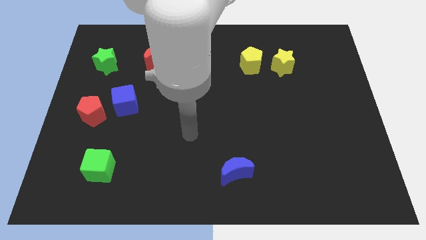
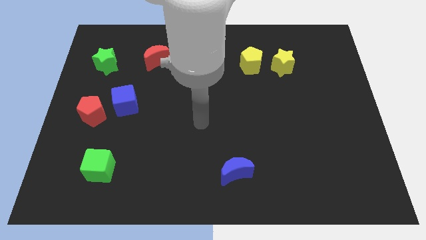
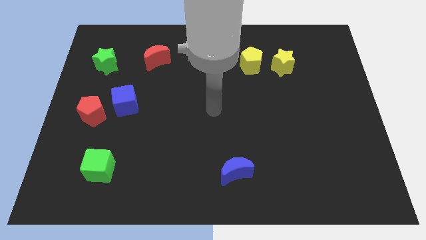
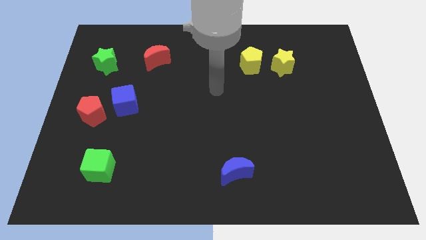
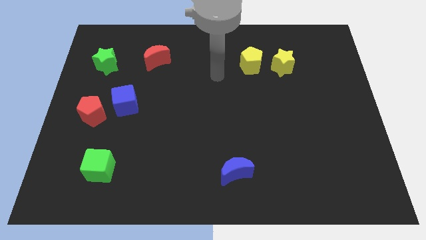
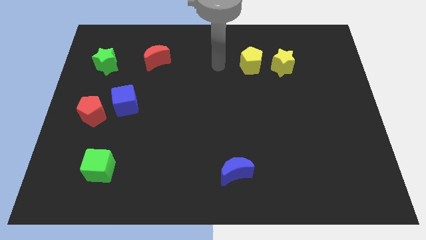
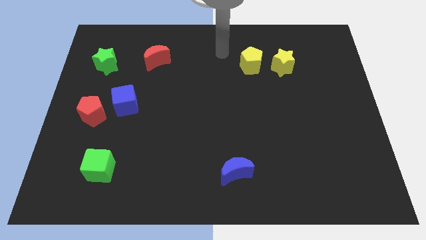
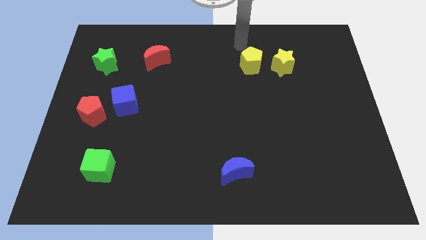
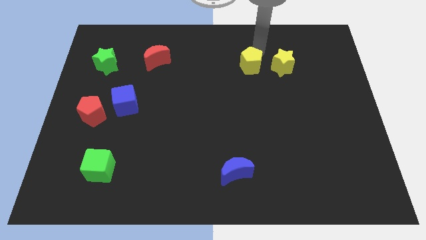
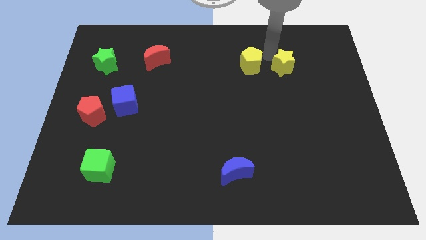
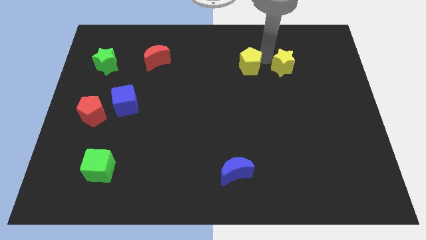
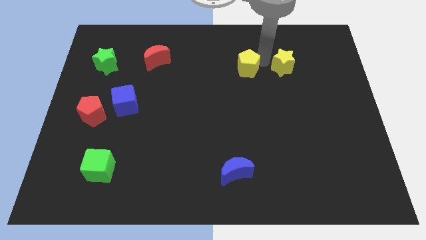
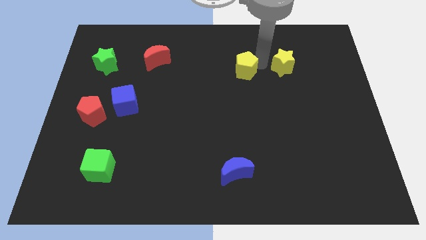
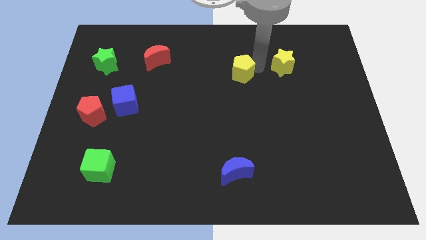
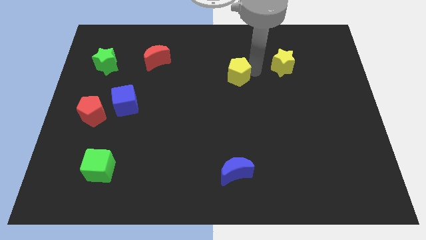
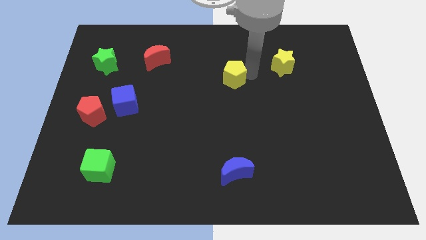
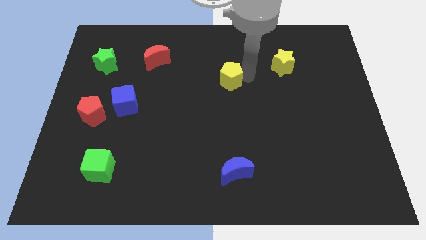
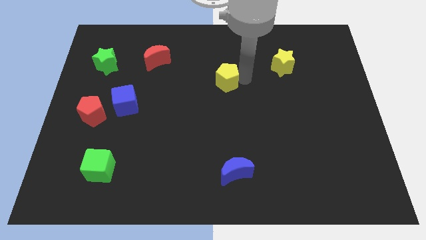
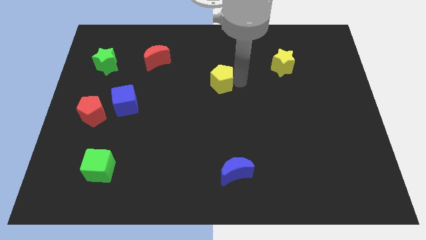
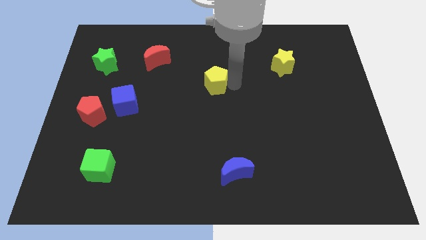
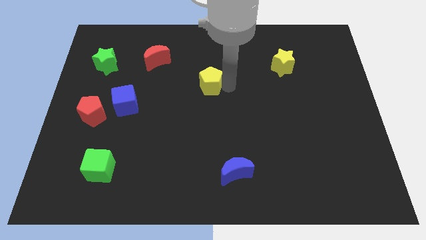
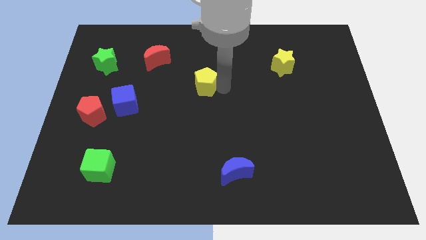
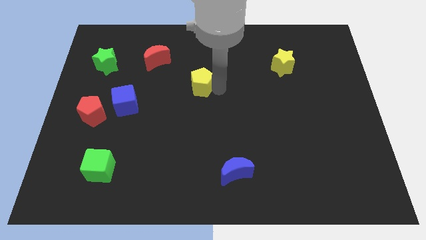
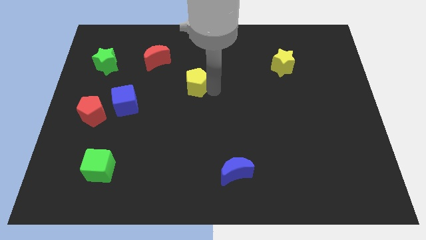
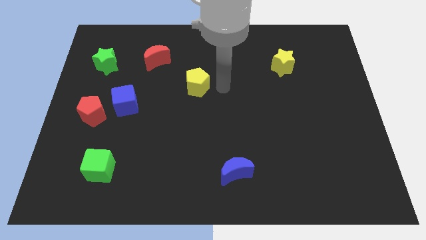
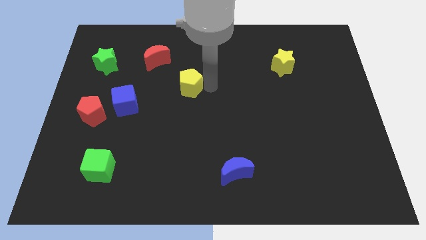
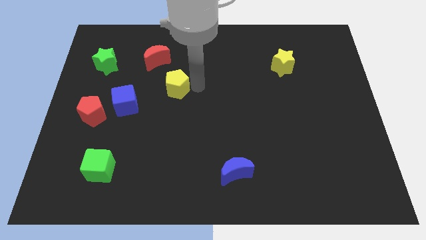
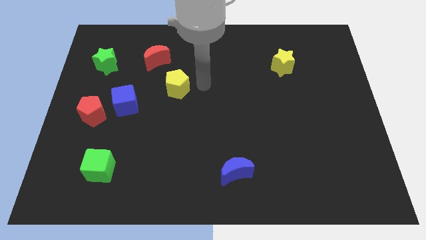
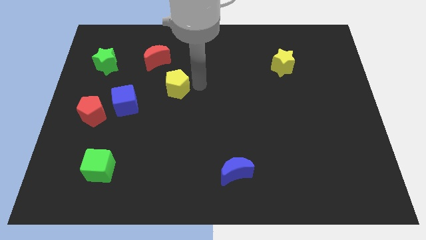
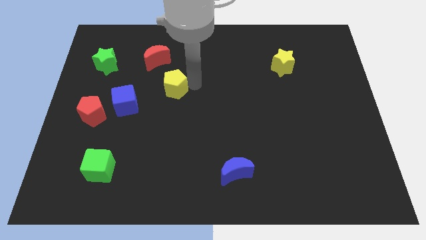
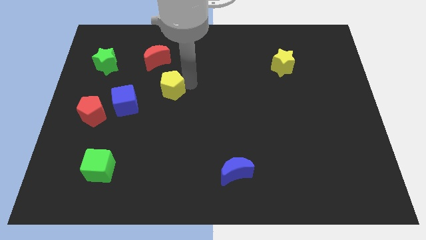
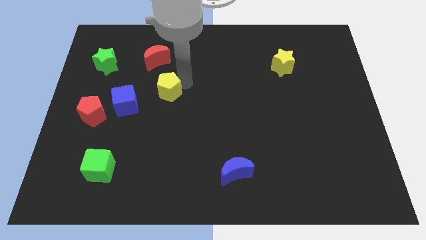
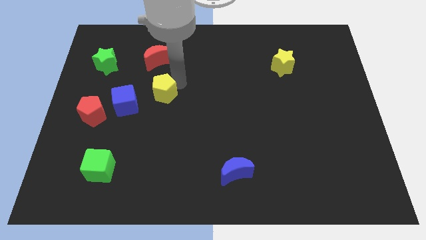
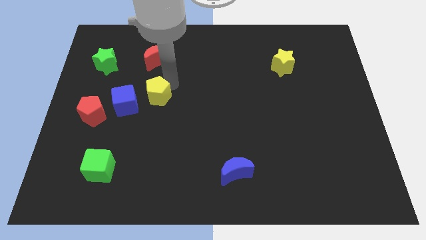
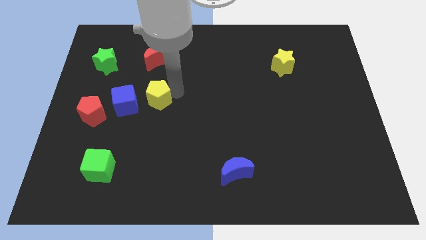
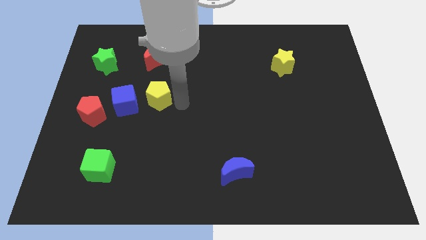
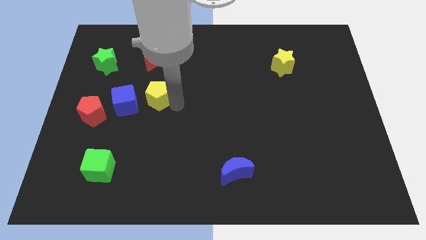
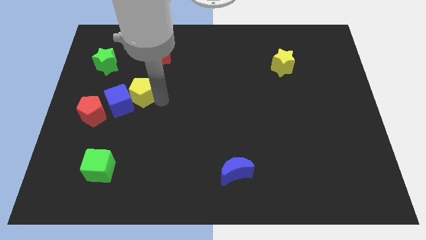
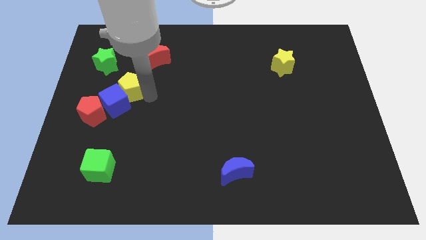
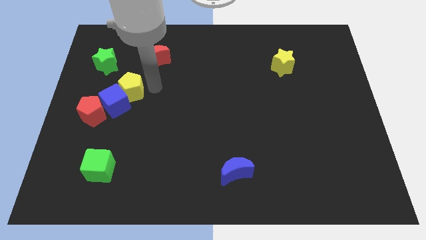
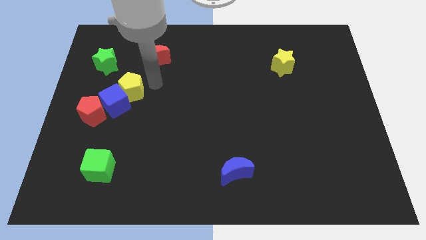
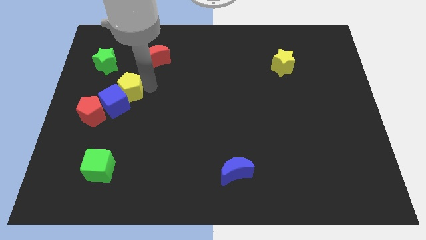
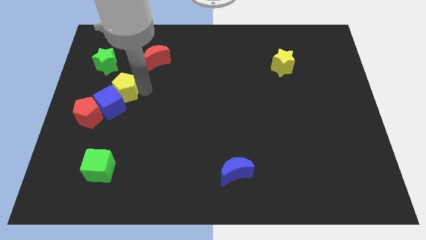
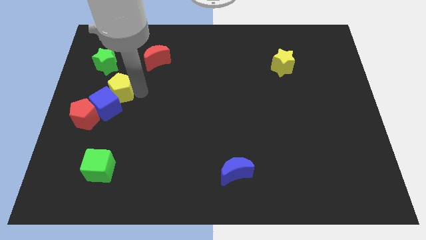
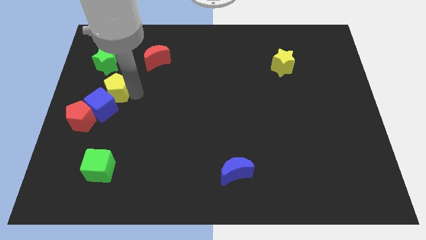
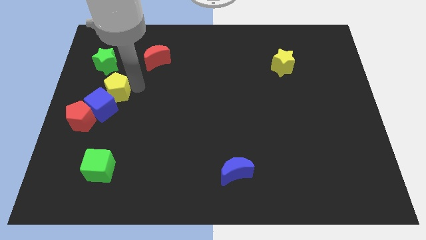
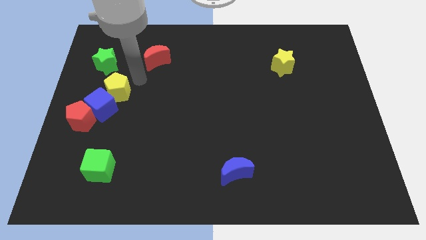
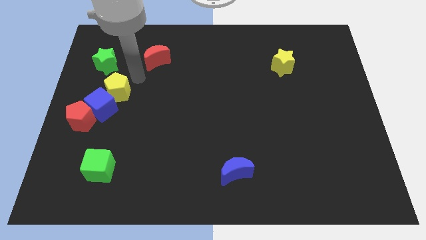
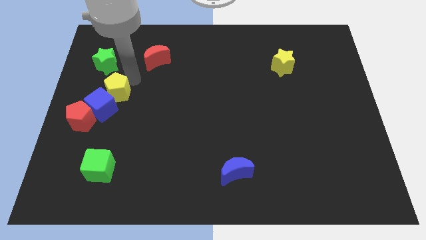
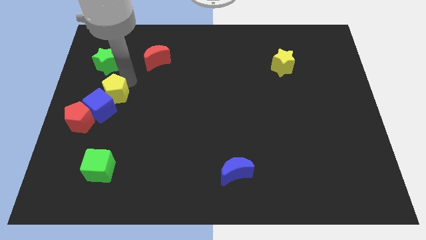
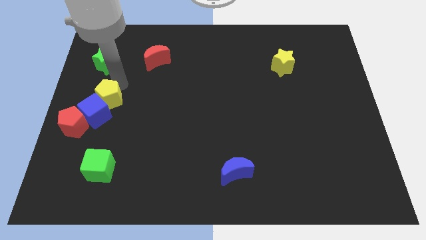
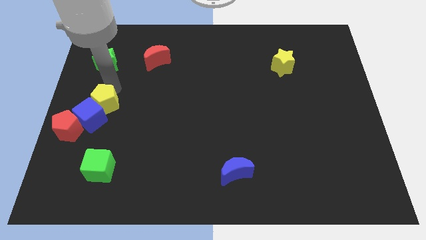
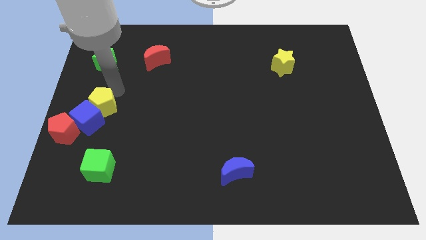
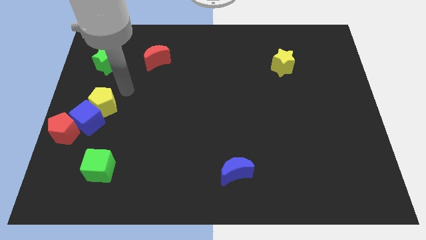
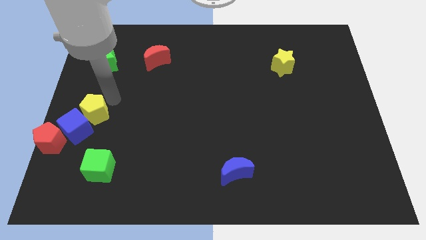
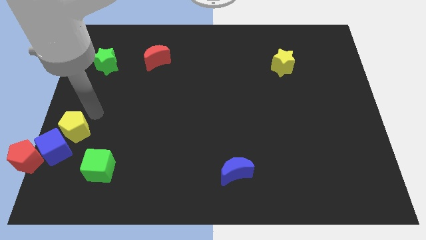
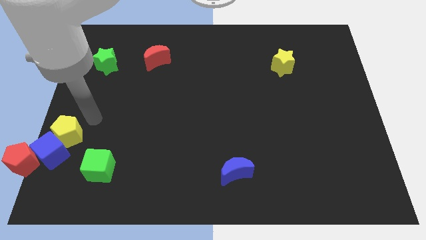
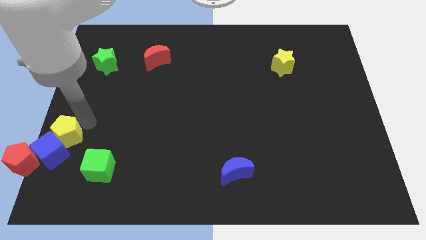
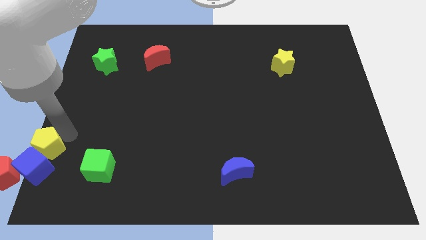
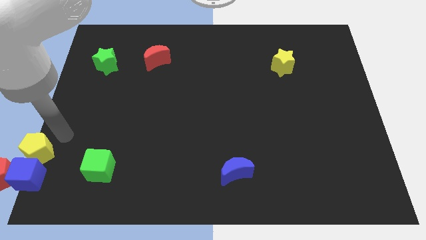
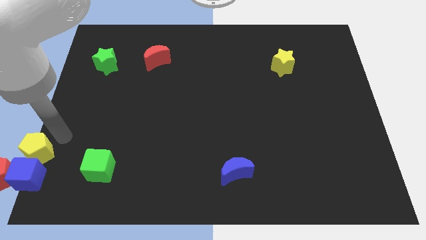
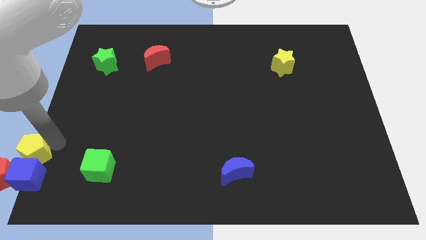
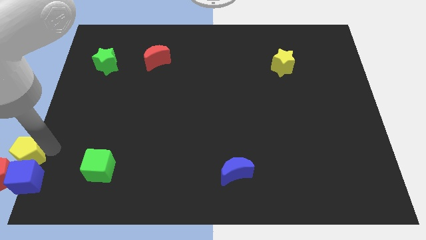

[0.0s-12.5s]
move the yellow pentagon close to the red pentagon
